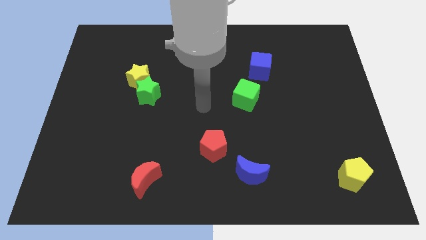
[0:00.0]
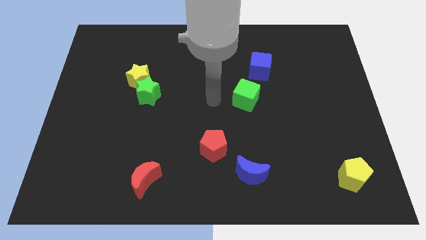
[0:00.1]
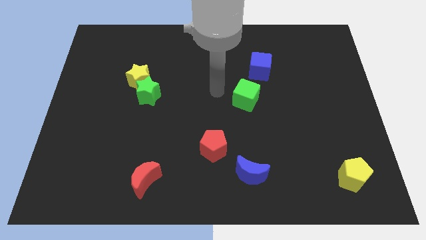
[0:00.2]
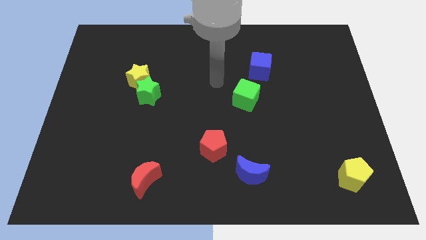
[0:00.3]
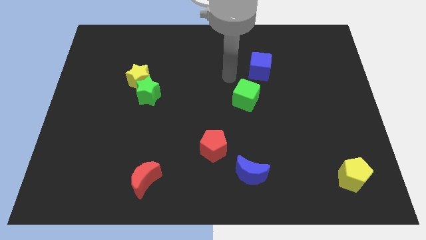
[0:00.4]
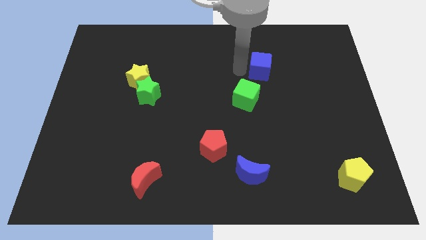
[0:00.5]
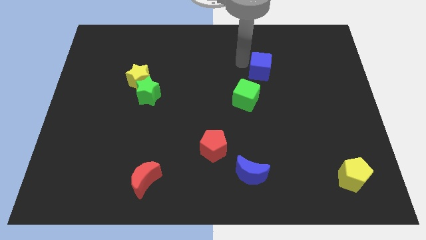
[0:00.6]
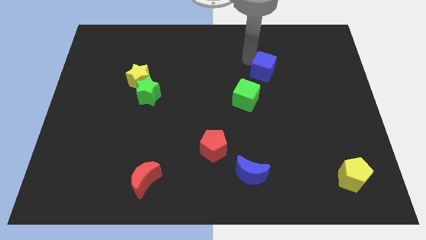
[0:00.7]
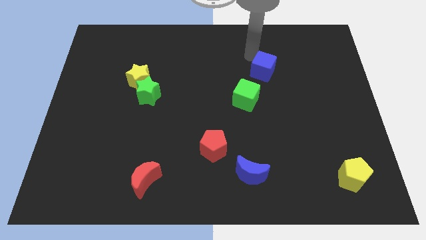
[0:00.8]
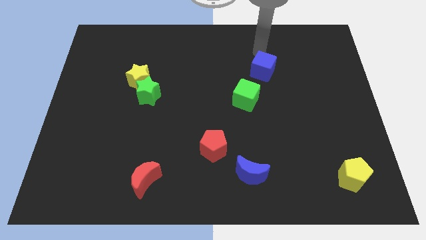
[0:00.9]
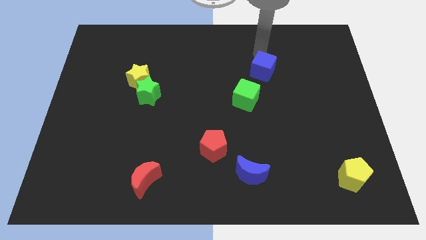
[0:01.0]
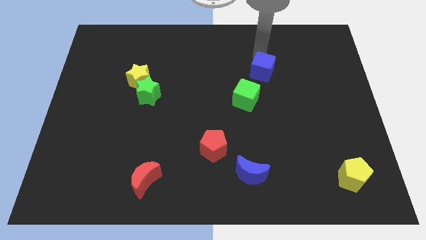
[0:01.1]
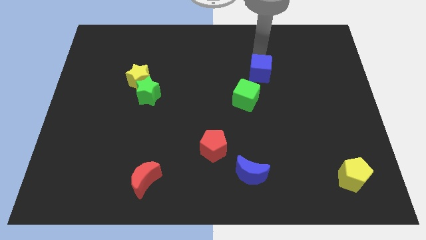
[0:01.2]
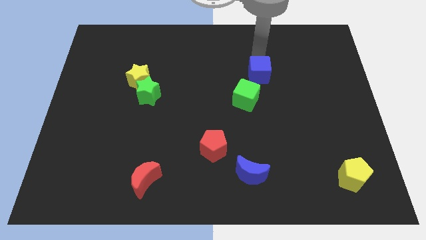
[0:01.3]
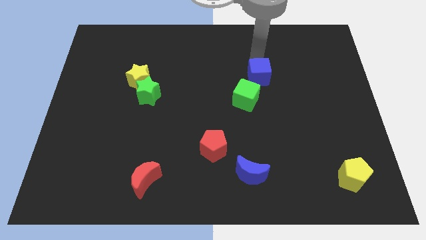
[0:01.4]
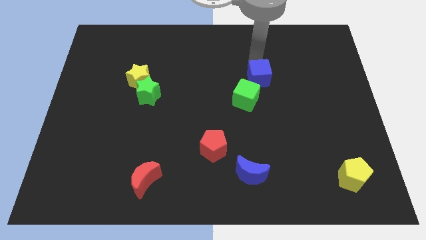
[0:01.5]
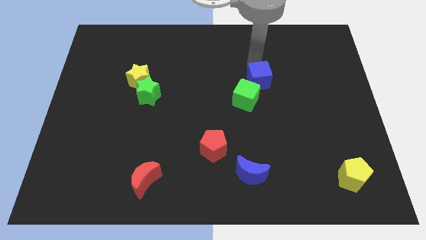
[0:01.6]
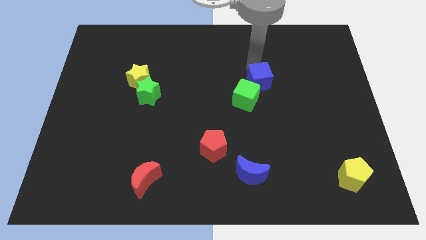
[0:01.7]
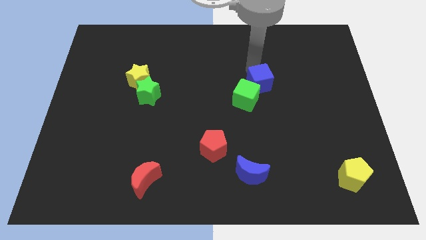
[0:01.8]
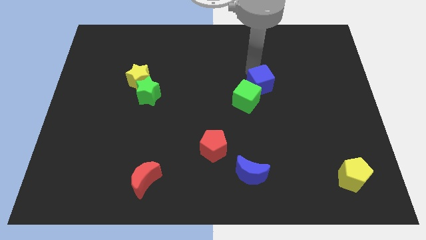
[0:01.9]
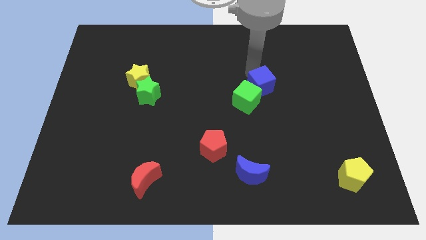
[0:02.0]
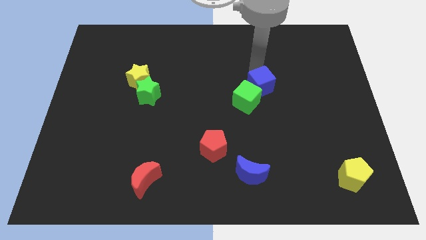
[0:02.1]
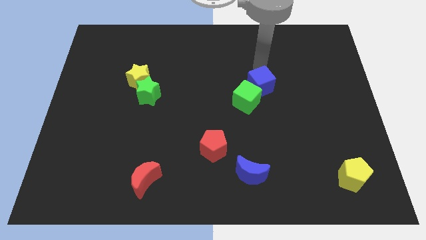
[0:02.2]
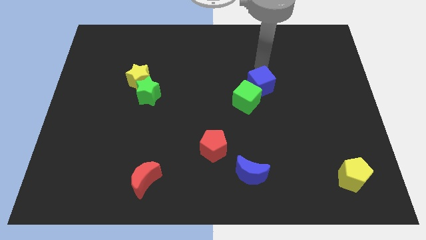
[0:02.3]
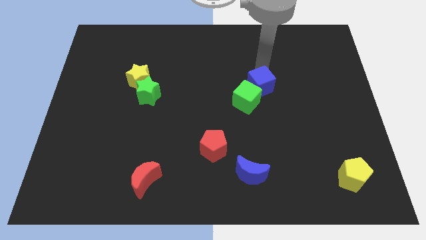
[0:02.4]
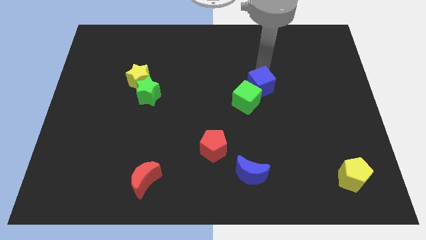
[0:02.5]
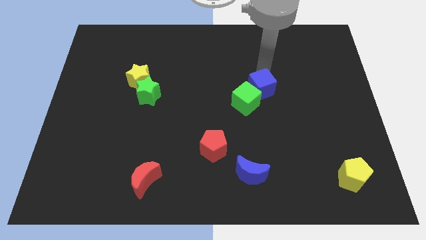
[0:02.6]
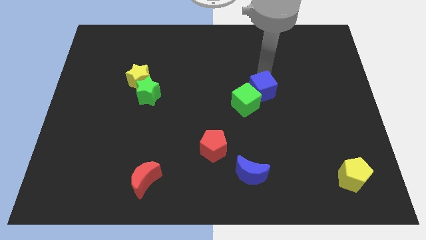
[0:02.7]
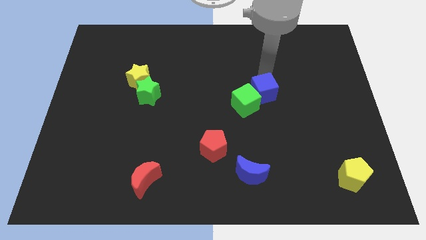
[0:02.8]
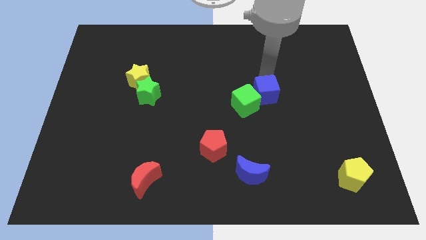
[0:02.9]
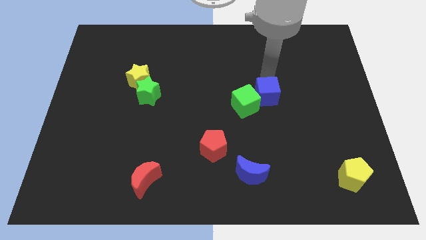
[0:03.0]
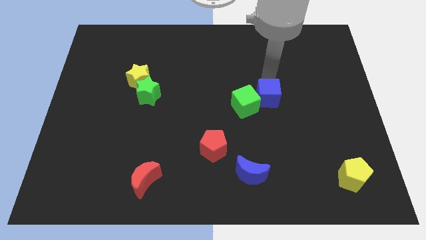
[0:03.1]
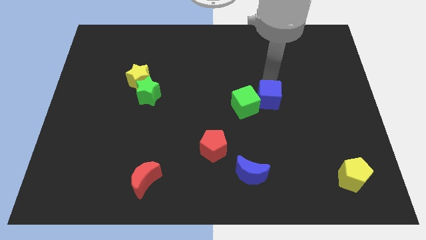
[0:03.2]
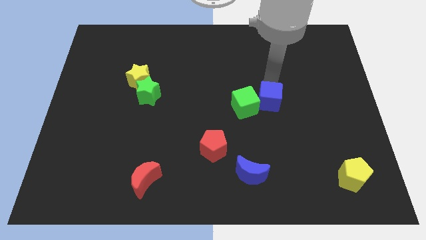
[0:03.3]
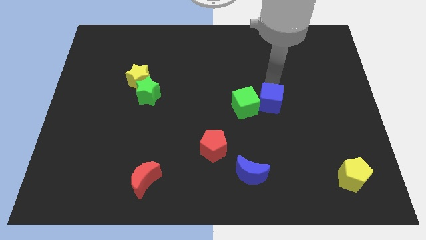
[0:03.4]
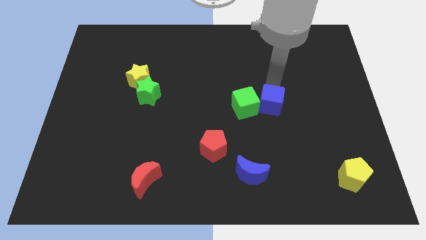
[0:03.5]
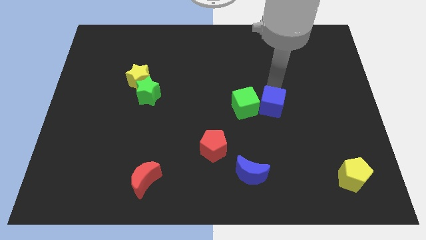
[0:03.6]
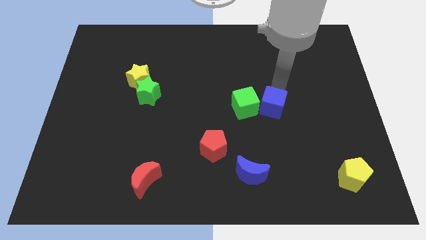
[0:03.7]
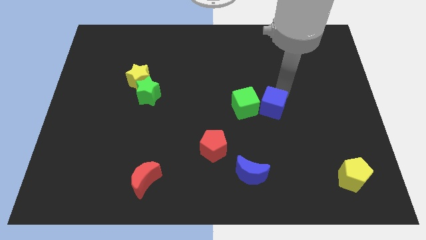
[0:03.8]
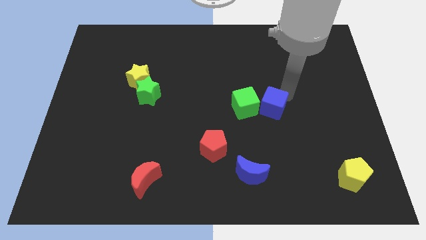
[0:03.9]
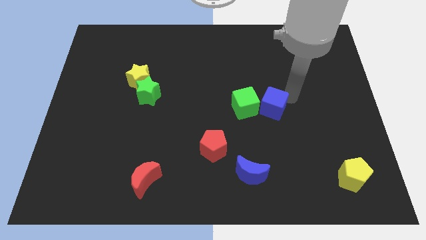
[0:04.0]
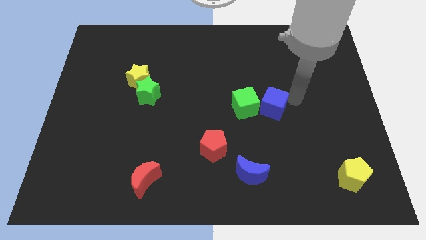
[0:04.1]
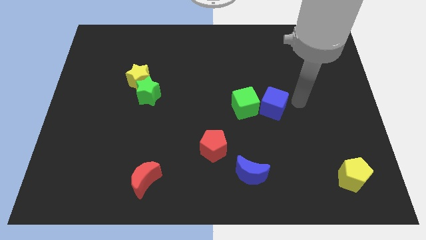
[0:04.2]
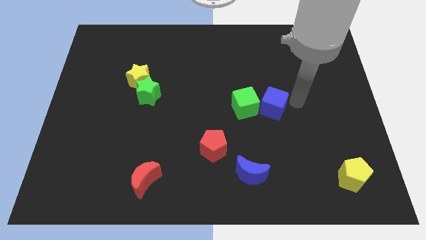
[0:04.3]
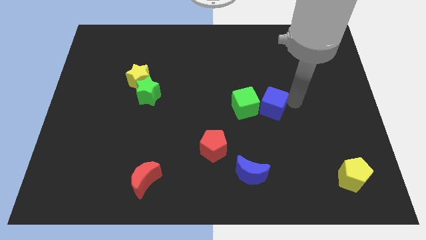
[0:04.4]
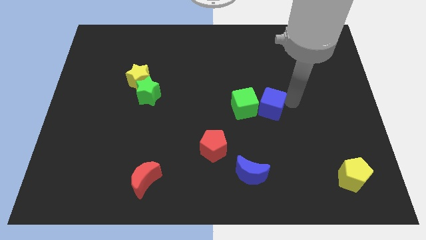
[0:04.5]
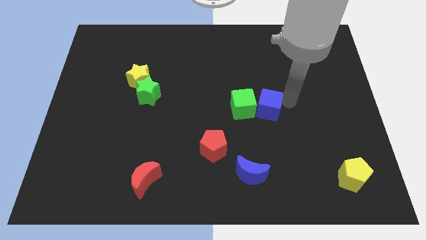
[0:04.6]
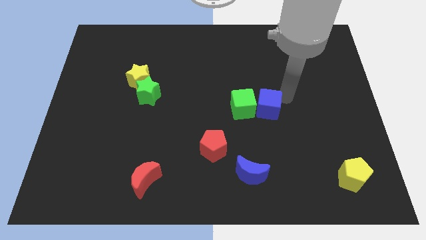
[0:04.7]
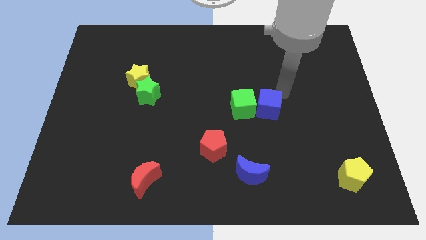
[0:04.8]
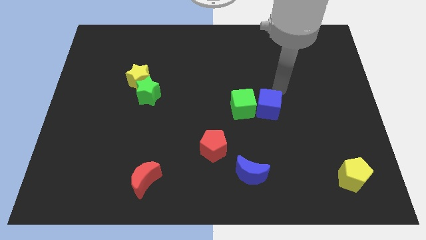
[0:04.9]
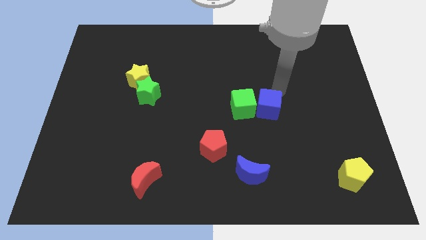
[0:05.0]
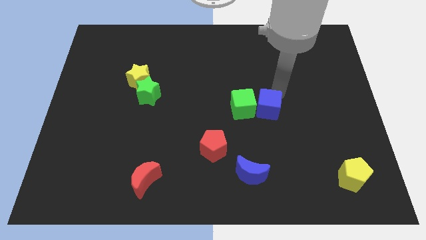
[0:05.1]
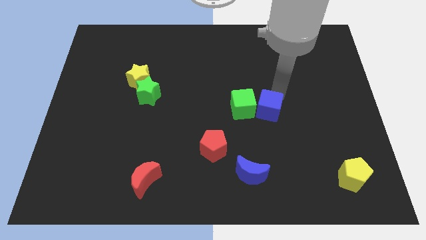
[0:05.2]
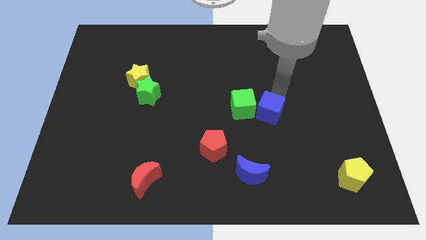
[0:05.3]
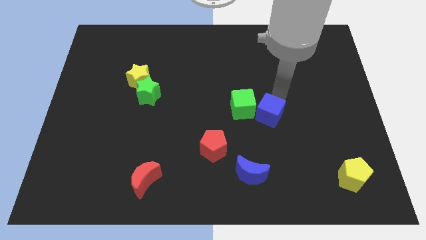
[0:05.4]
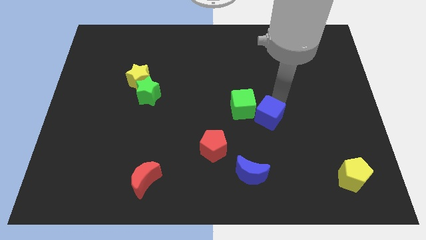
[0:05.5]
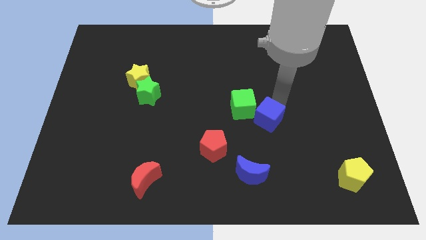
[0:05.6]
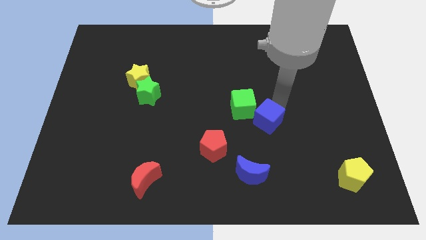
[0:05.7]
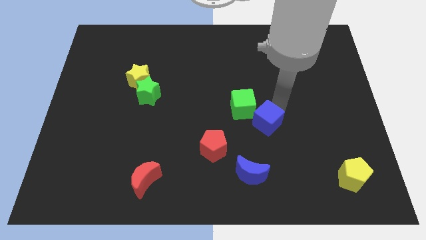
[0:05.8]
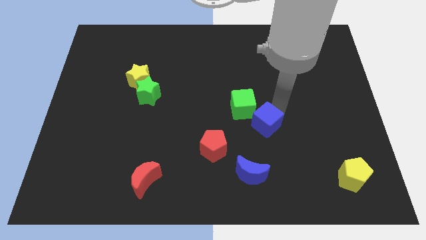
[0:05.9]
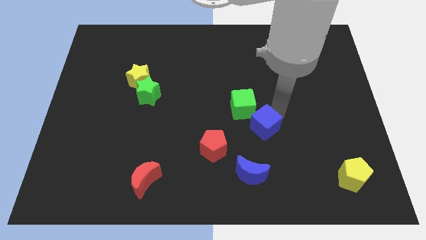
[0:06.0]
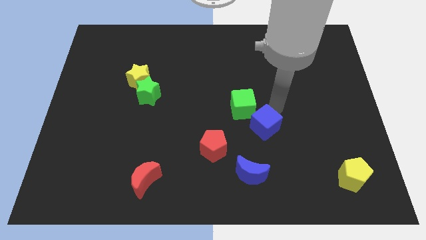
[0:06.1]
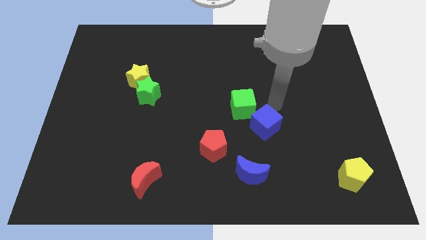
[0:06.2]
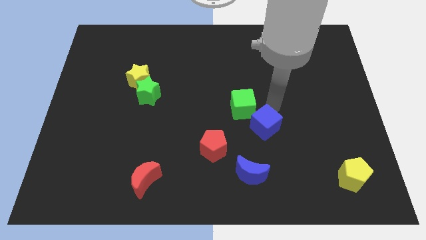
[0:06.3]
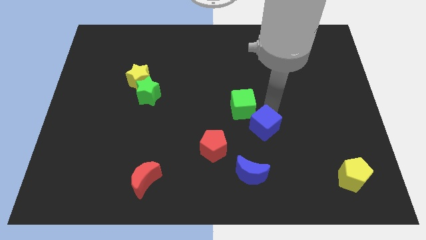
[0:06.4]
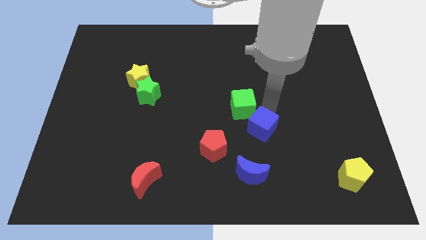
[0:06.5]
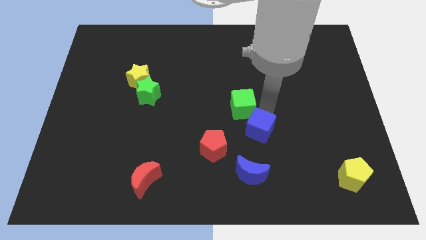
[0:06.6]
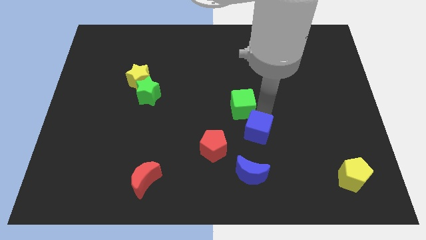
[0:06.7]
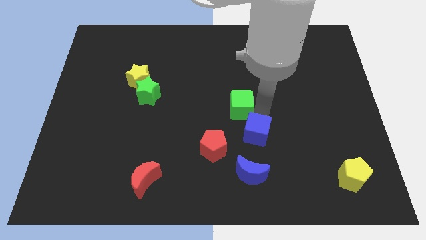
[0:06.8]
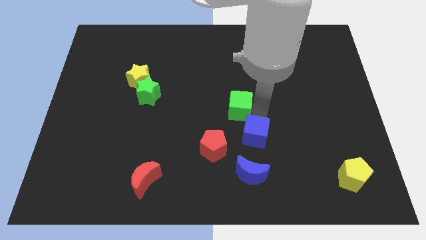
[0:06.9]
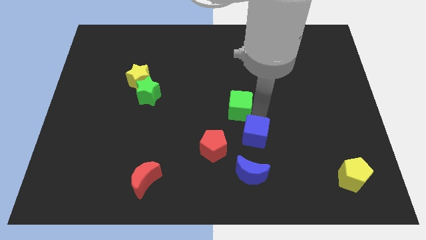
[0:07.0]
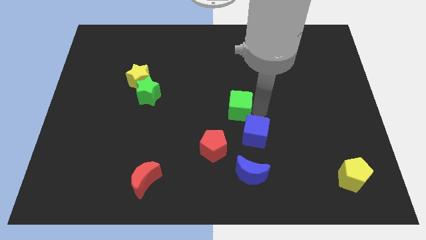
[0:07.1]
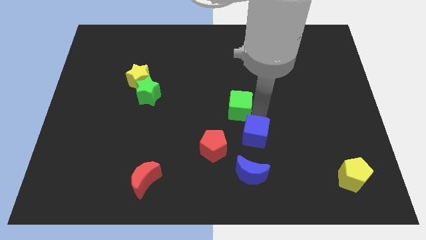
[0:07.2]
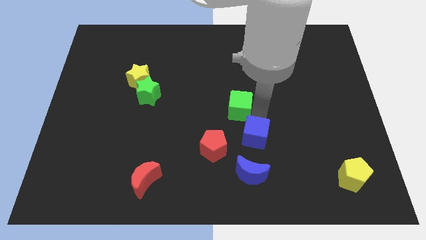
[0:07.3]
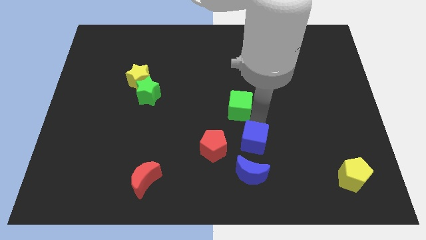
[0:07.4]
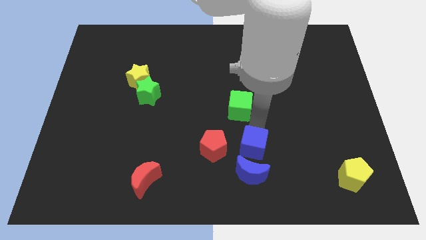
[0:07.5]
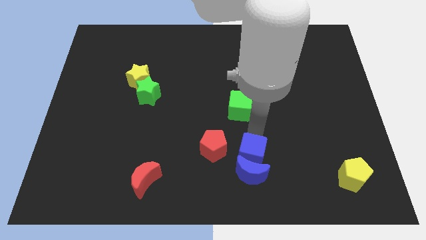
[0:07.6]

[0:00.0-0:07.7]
move the blue cube close to the blue moon
